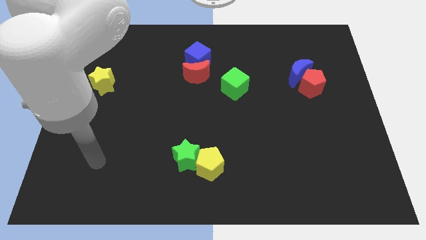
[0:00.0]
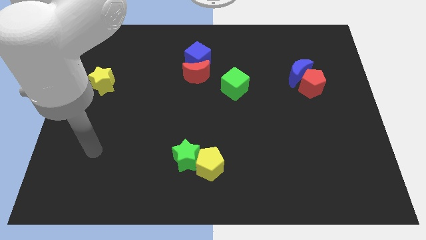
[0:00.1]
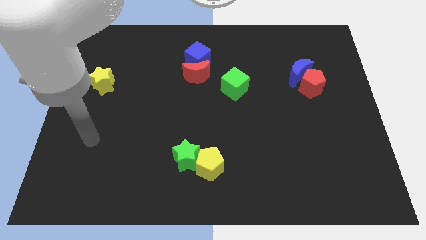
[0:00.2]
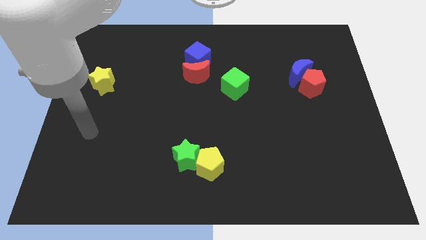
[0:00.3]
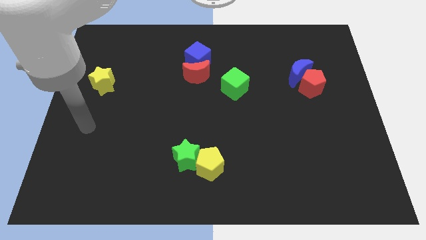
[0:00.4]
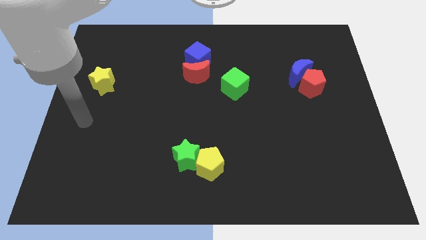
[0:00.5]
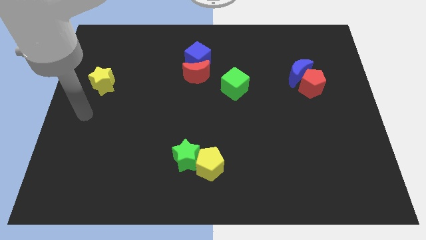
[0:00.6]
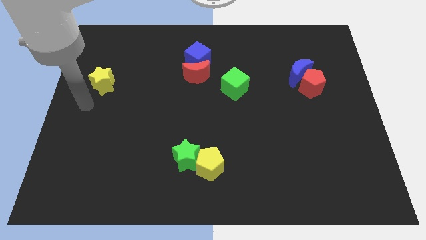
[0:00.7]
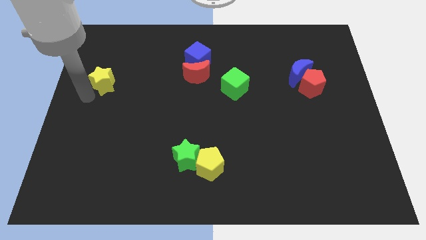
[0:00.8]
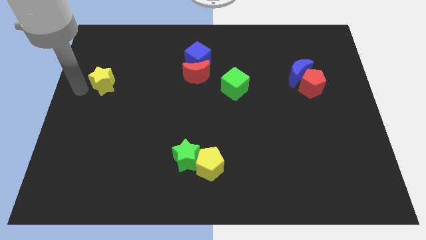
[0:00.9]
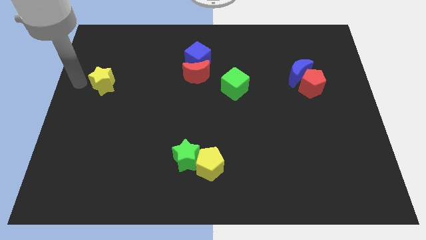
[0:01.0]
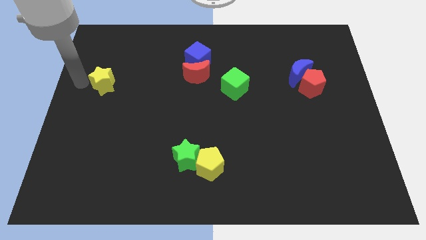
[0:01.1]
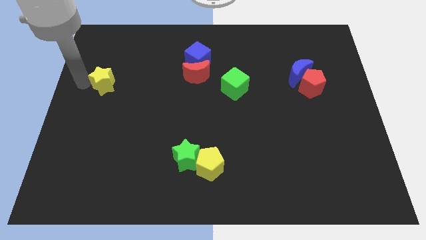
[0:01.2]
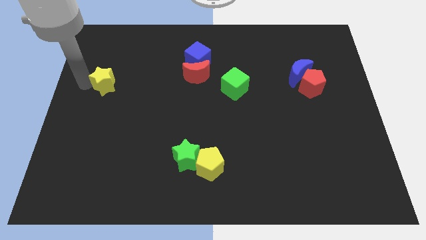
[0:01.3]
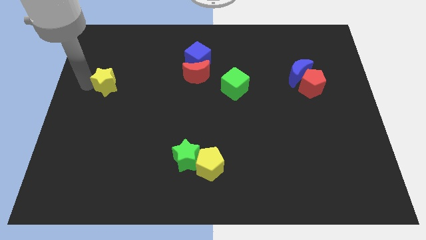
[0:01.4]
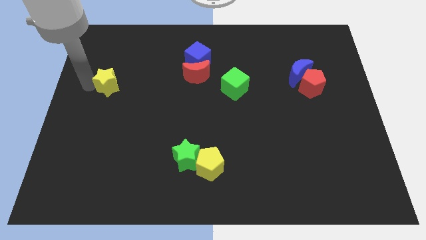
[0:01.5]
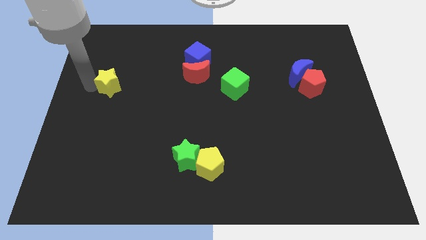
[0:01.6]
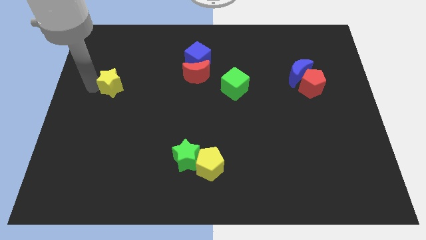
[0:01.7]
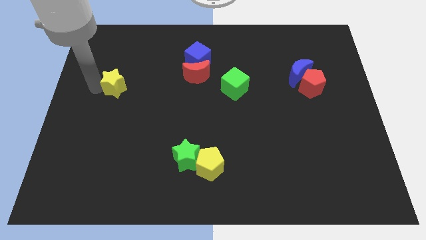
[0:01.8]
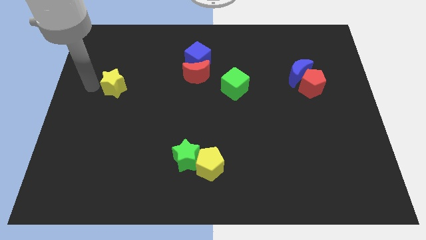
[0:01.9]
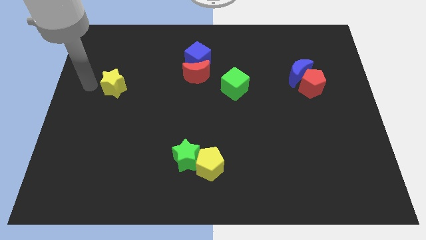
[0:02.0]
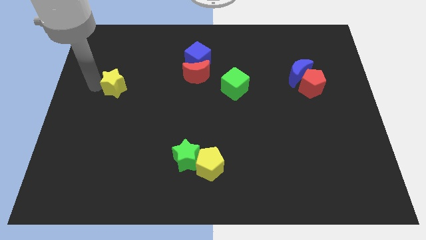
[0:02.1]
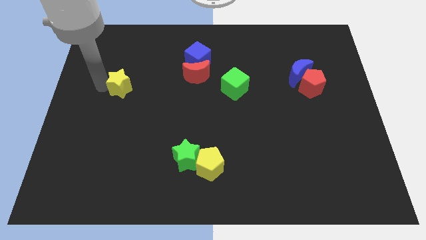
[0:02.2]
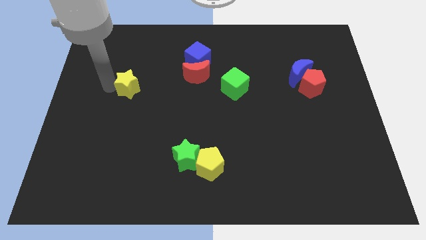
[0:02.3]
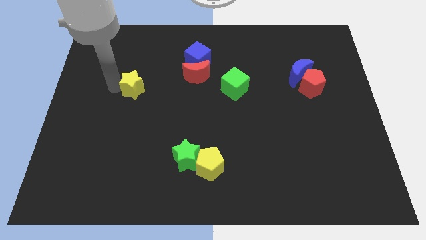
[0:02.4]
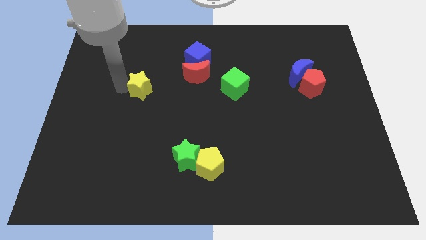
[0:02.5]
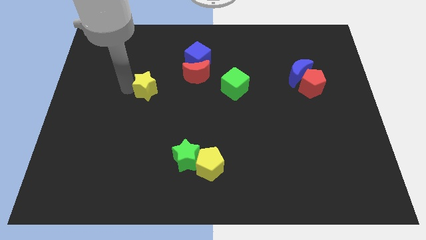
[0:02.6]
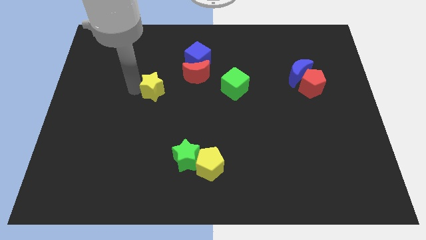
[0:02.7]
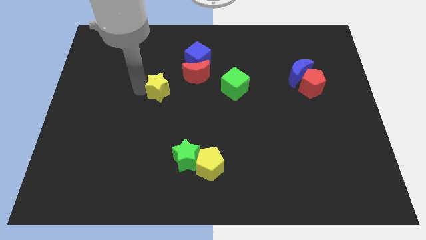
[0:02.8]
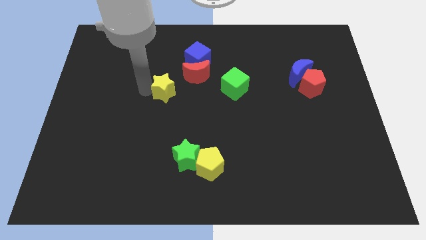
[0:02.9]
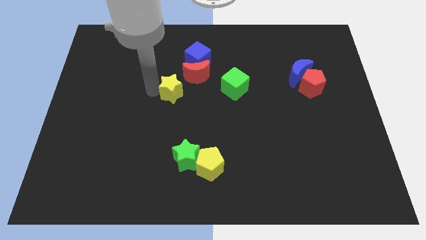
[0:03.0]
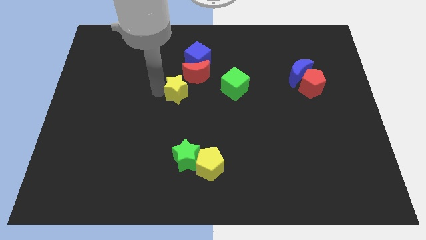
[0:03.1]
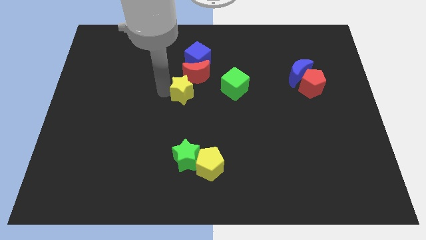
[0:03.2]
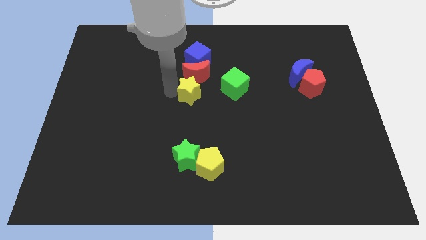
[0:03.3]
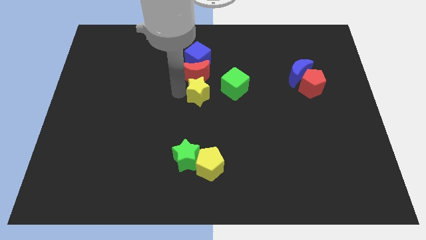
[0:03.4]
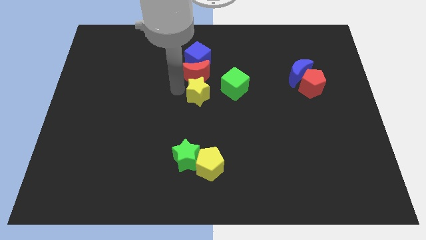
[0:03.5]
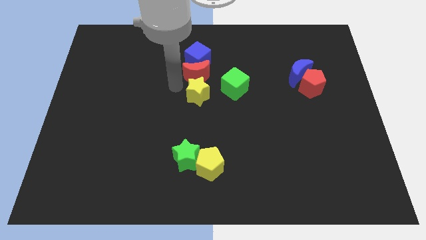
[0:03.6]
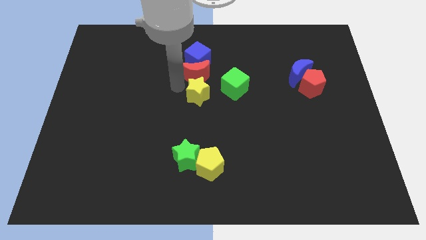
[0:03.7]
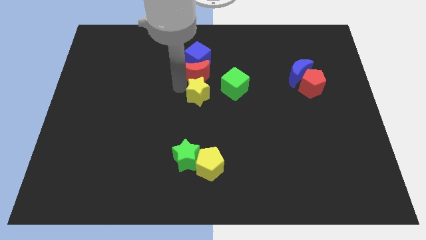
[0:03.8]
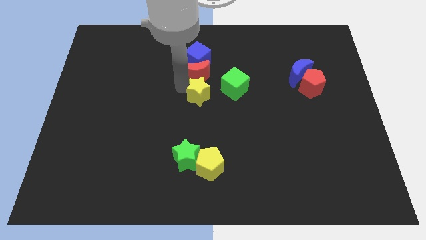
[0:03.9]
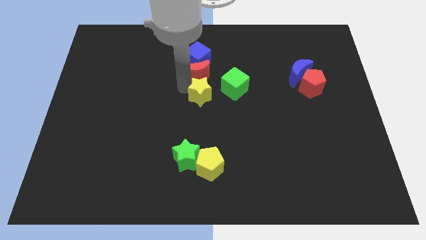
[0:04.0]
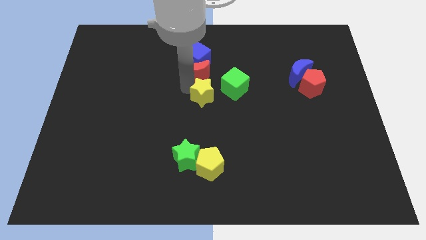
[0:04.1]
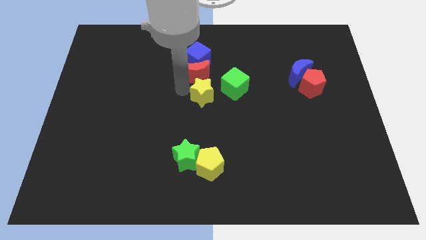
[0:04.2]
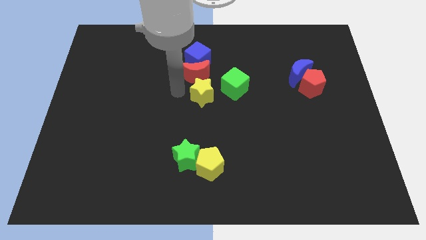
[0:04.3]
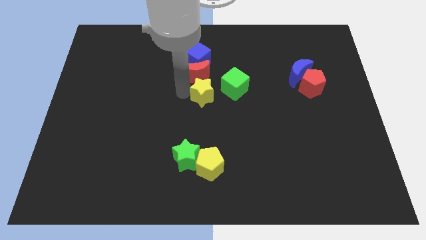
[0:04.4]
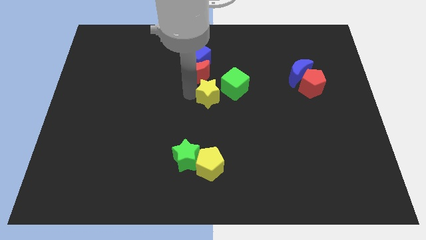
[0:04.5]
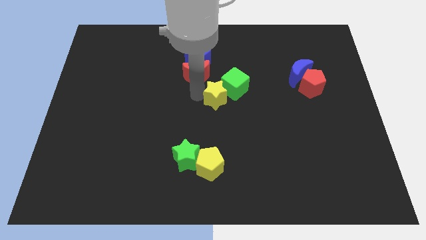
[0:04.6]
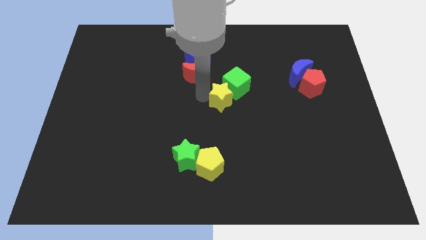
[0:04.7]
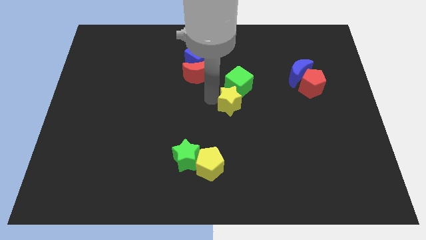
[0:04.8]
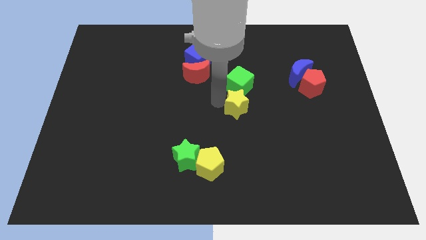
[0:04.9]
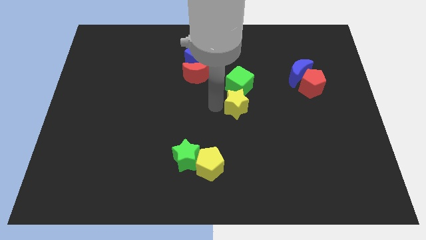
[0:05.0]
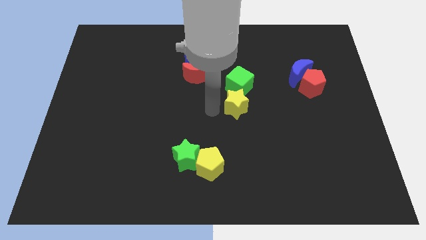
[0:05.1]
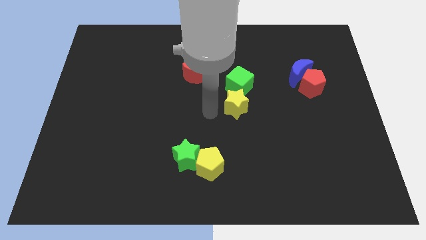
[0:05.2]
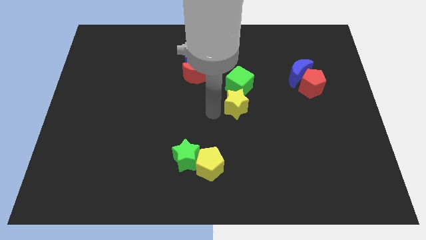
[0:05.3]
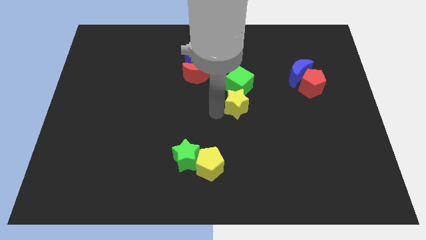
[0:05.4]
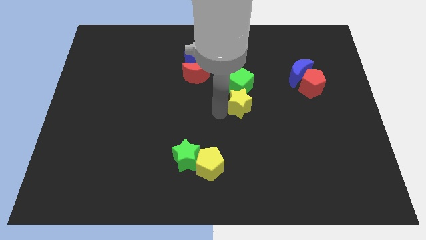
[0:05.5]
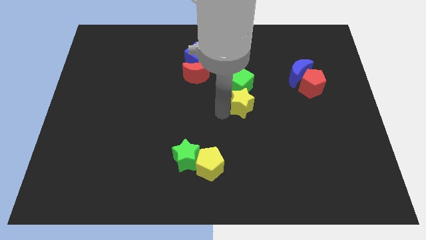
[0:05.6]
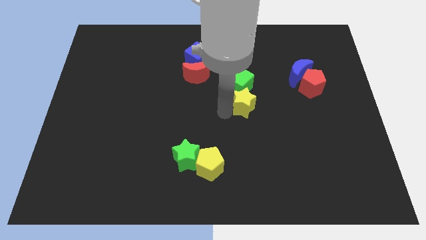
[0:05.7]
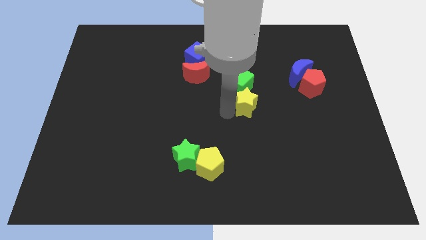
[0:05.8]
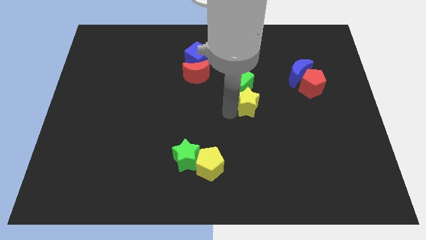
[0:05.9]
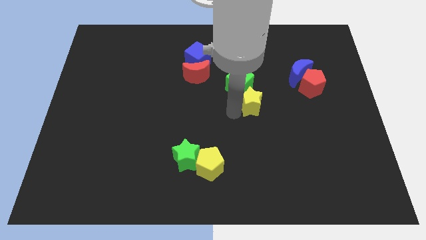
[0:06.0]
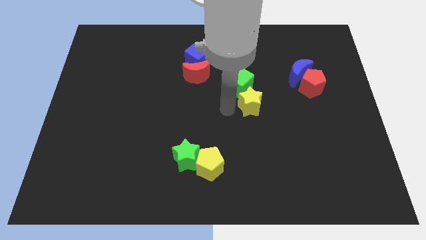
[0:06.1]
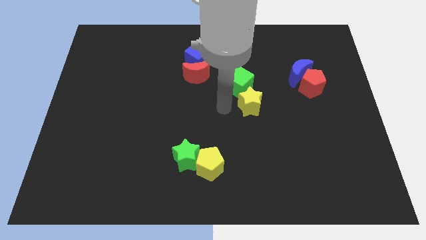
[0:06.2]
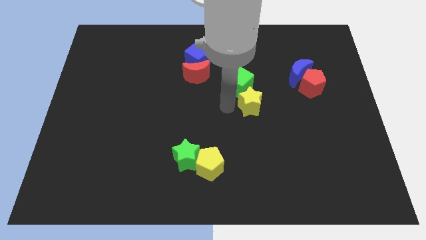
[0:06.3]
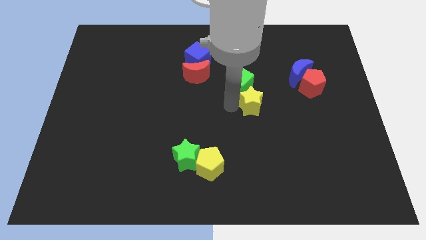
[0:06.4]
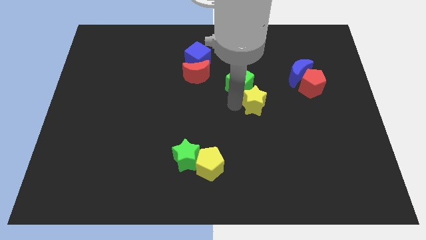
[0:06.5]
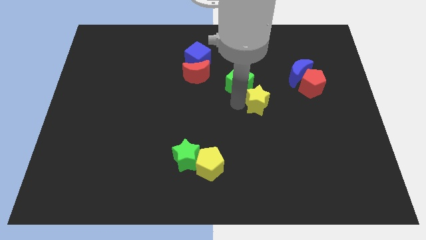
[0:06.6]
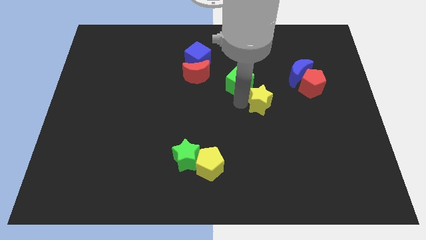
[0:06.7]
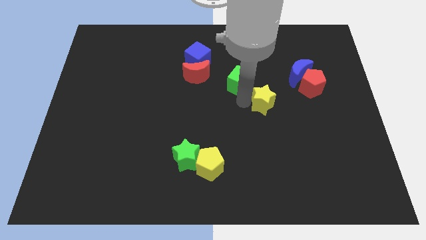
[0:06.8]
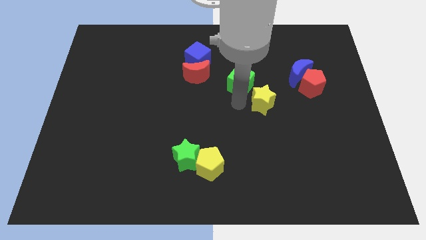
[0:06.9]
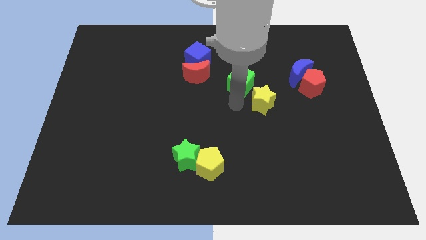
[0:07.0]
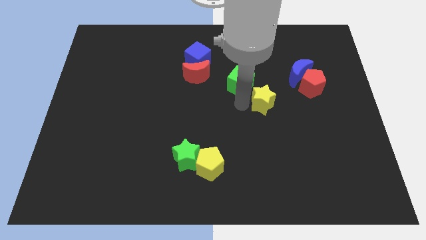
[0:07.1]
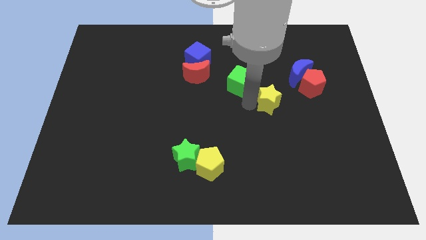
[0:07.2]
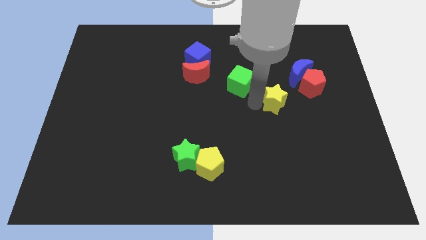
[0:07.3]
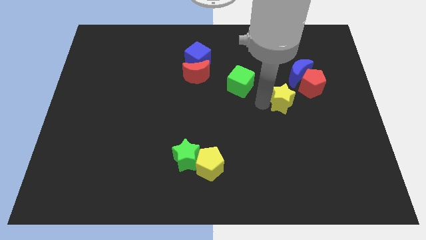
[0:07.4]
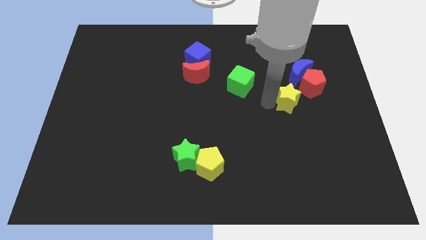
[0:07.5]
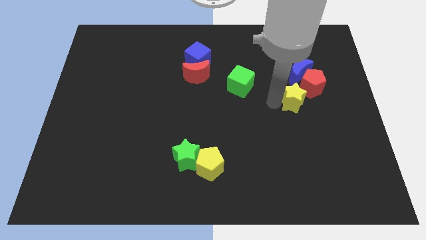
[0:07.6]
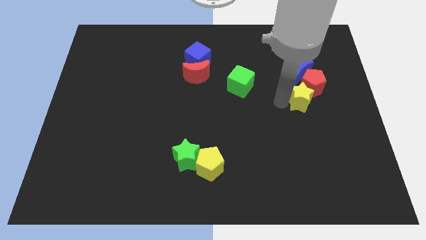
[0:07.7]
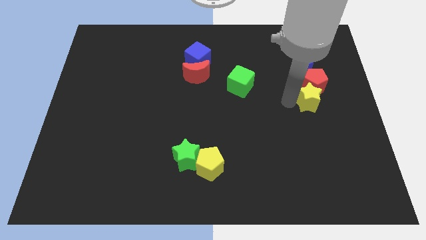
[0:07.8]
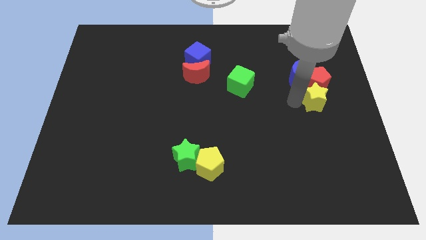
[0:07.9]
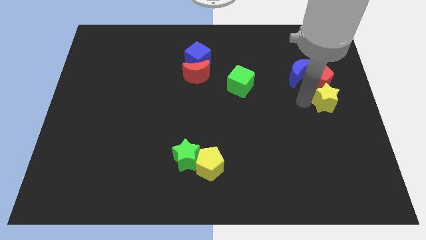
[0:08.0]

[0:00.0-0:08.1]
slide the yellow star to the center right
